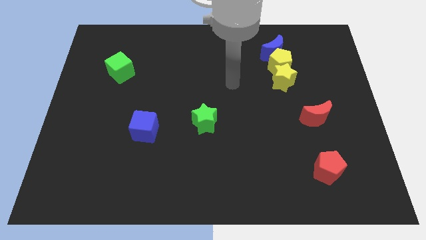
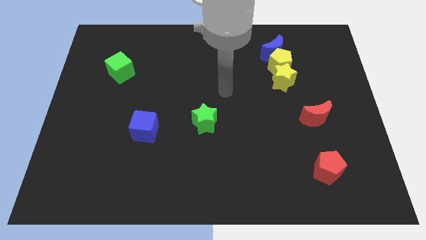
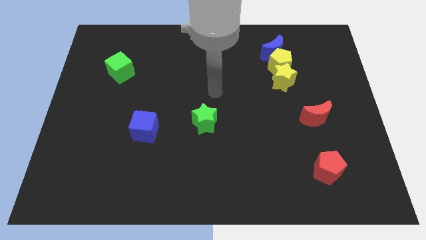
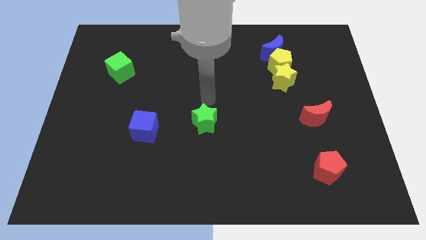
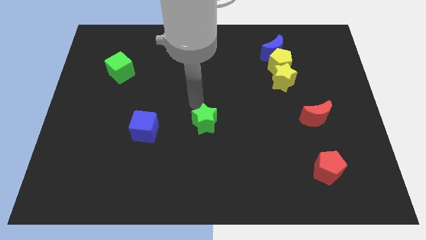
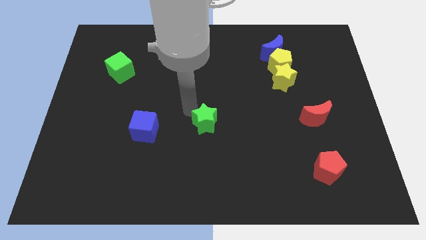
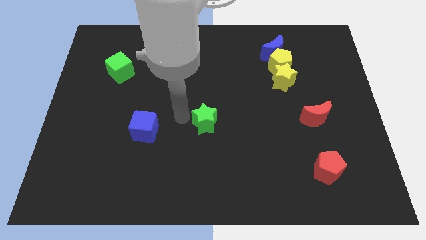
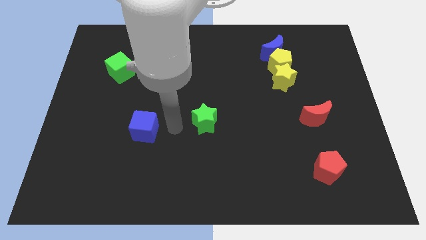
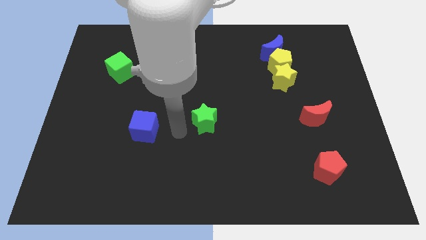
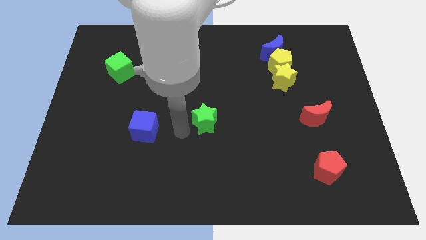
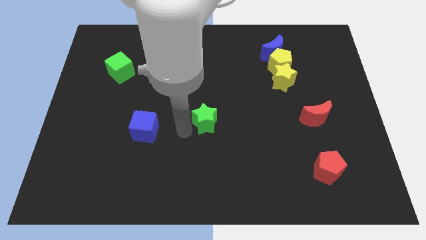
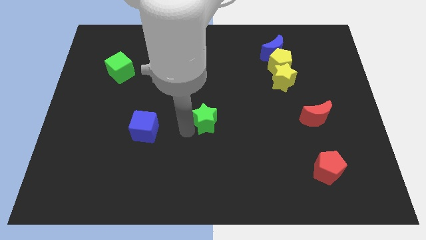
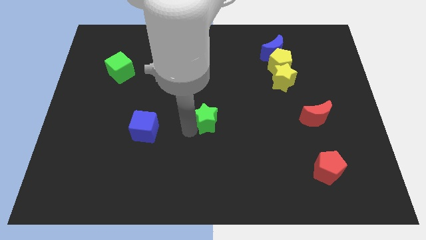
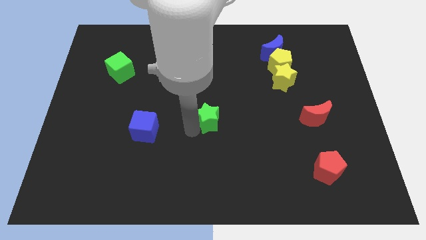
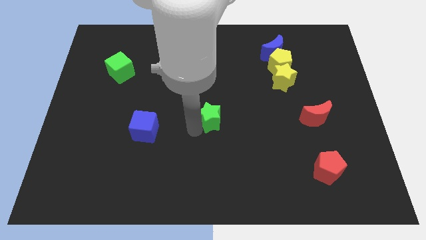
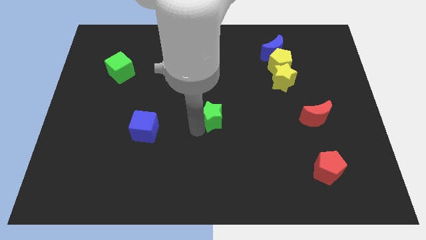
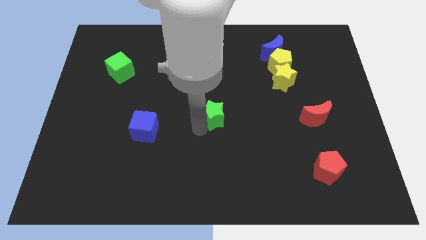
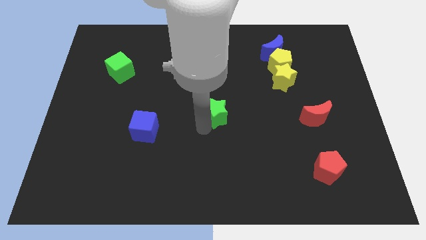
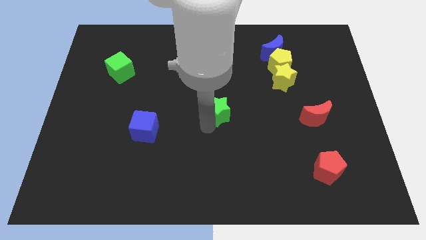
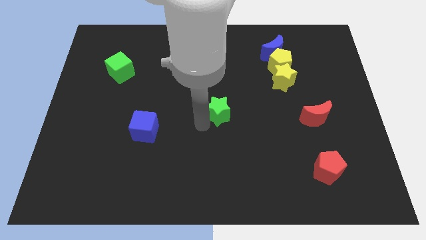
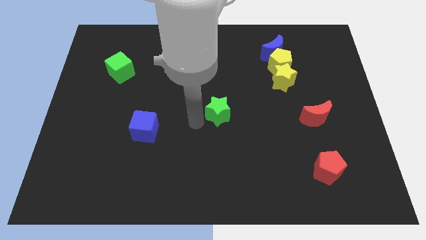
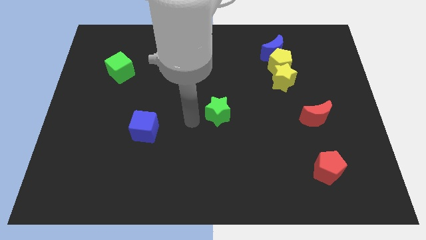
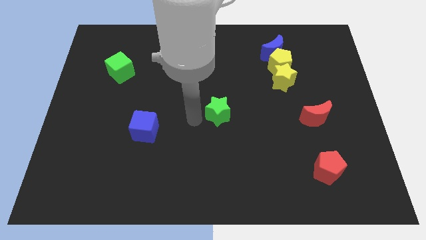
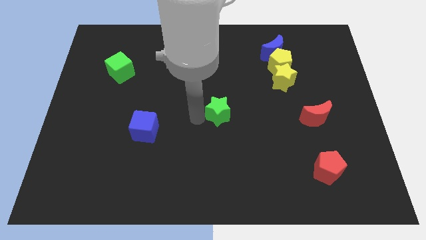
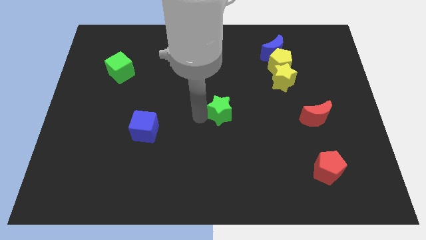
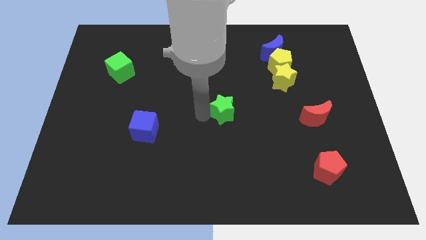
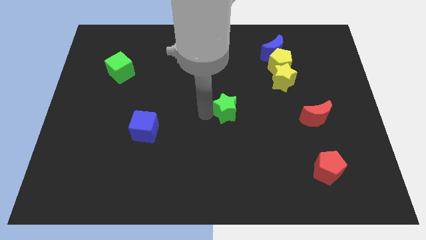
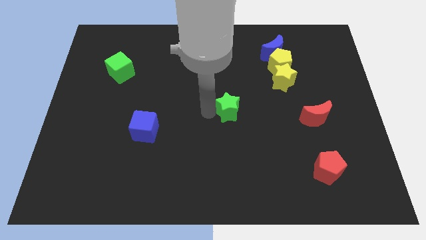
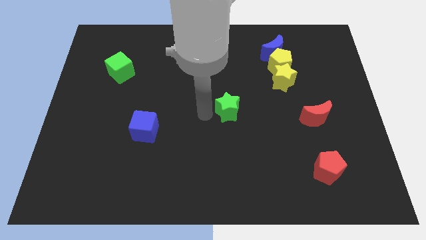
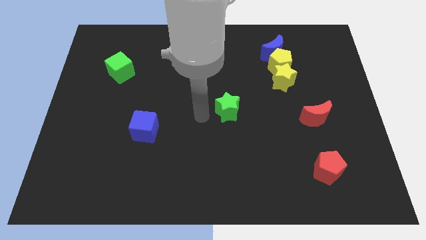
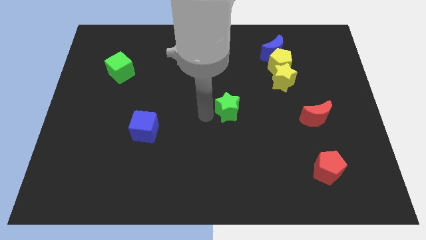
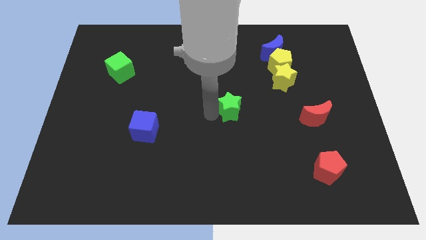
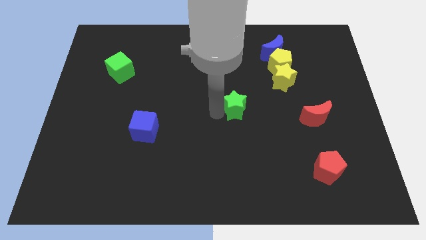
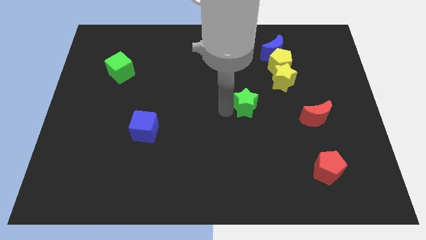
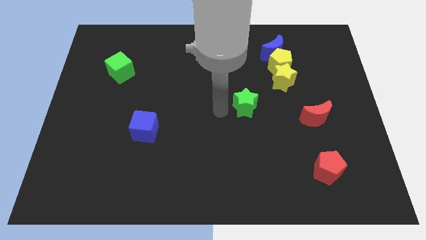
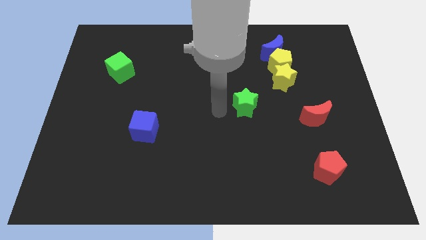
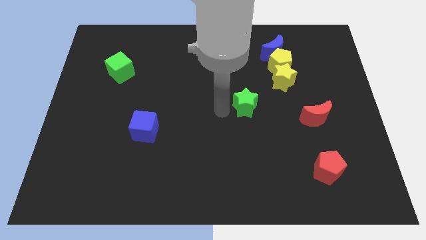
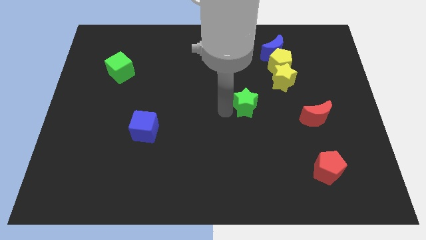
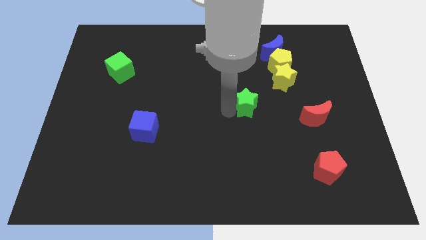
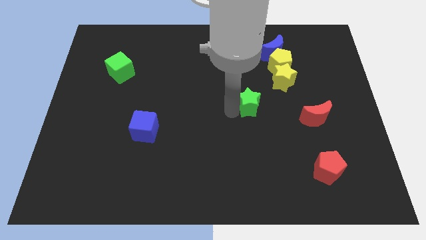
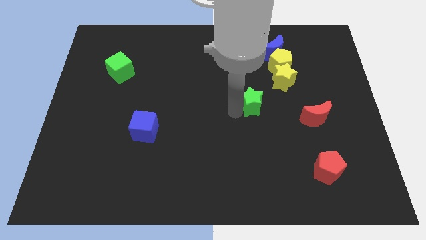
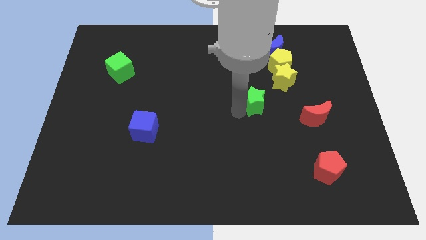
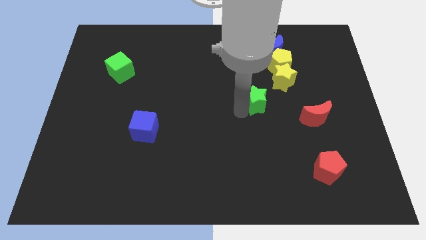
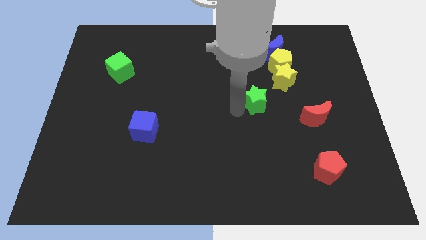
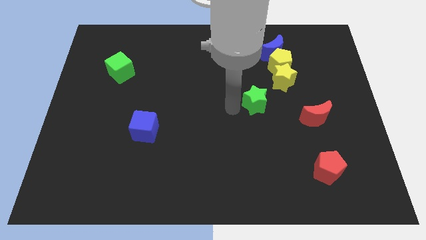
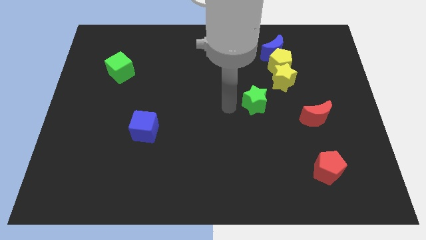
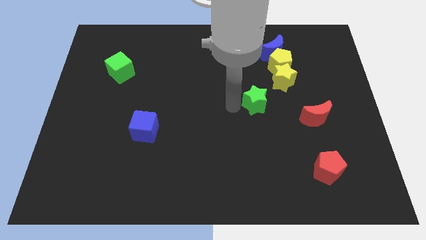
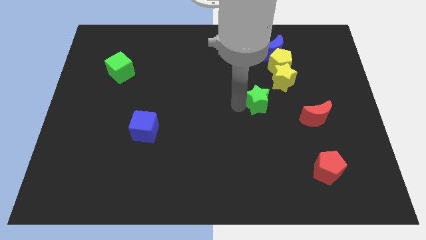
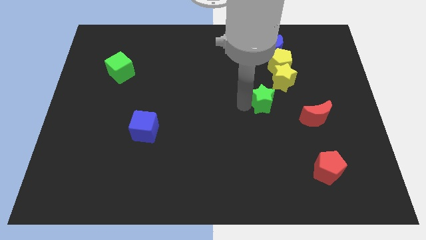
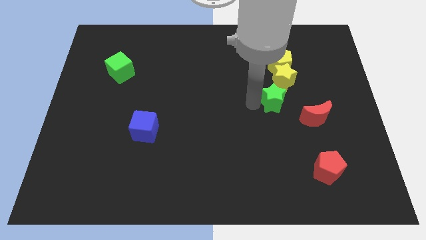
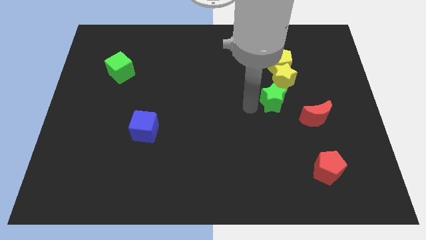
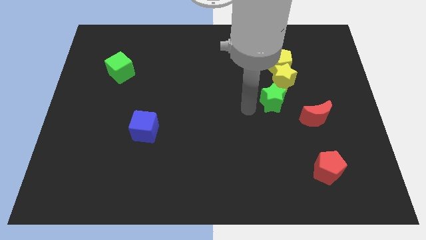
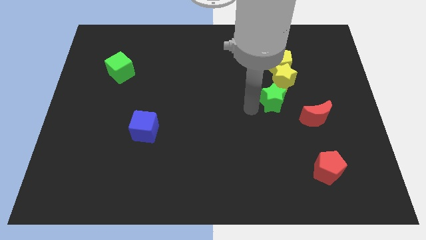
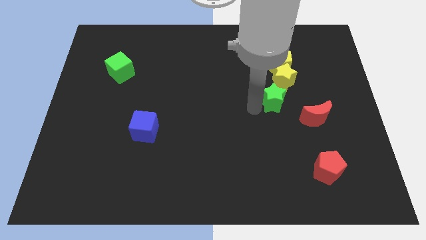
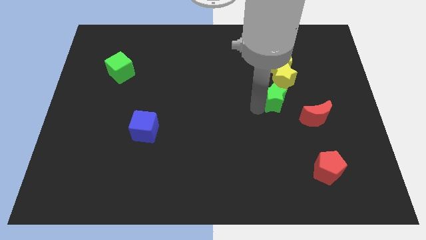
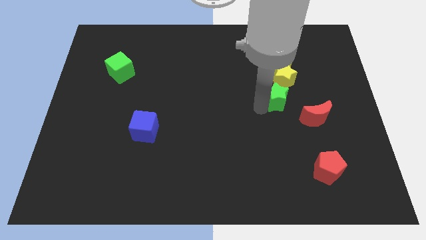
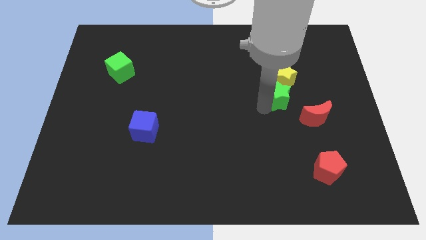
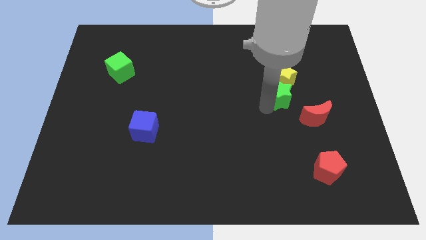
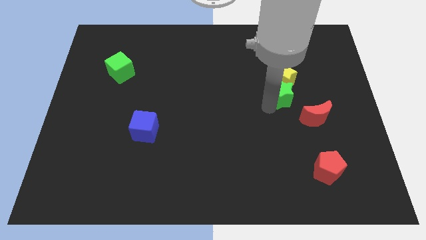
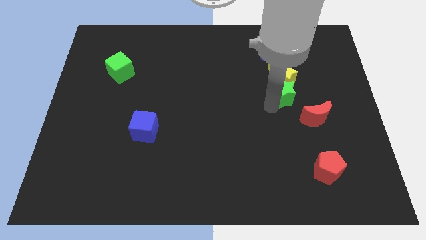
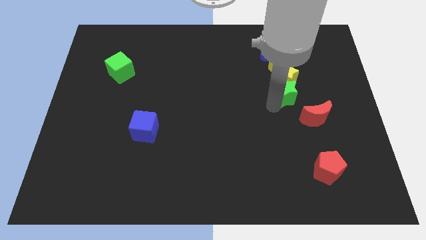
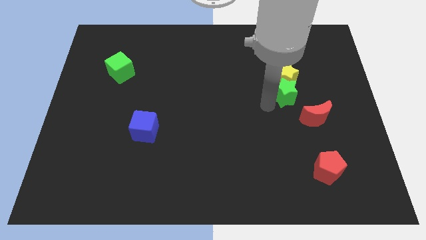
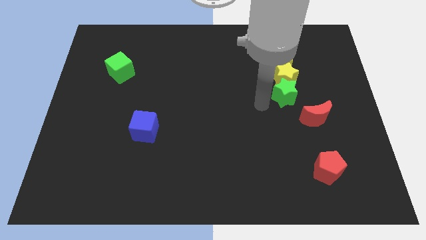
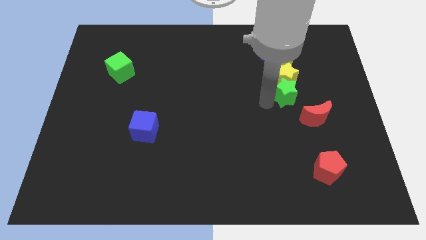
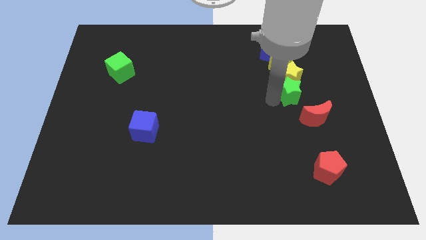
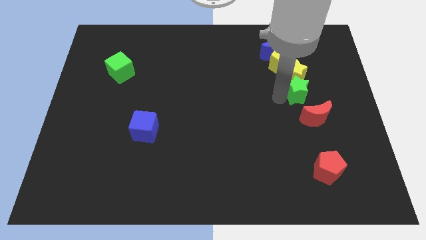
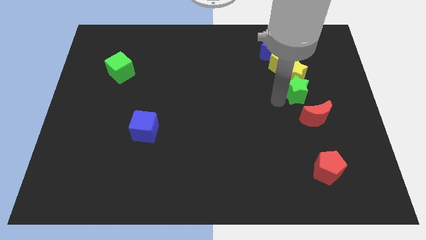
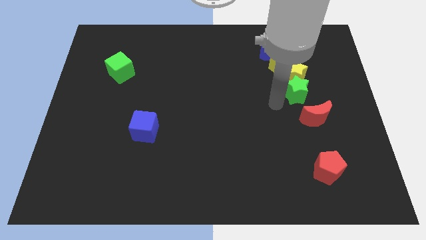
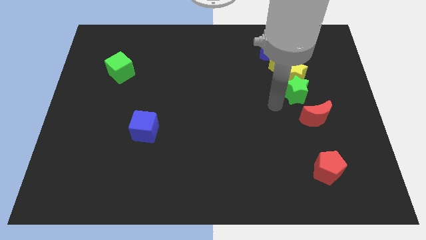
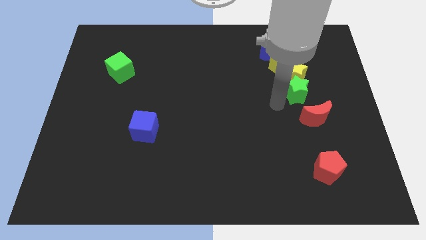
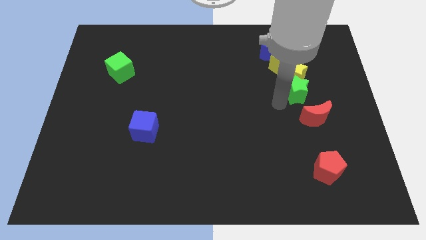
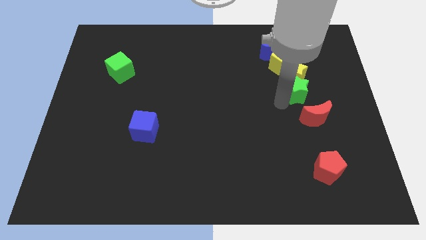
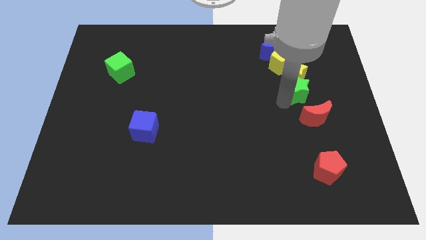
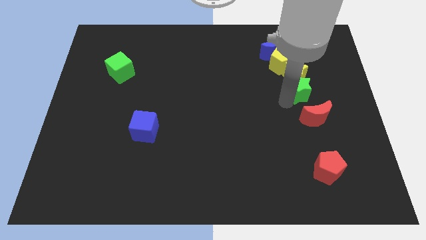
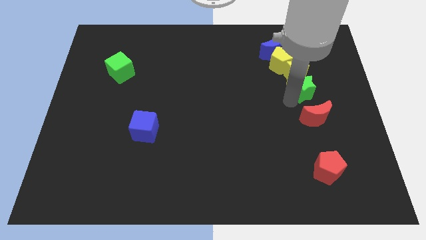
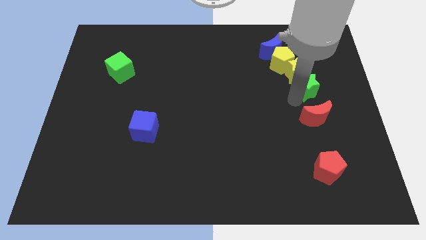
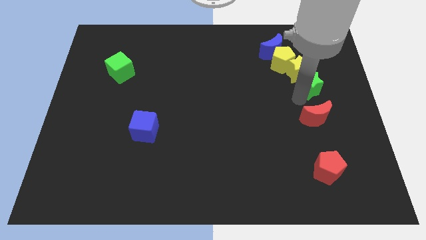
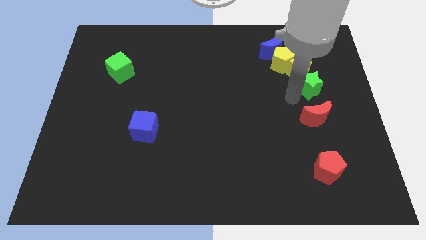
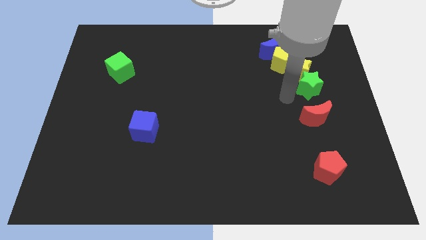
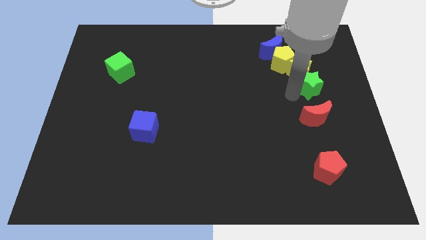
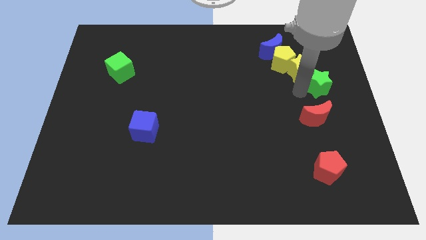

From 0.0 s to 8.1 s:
put the green star to the right side of the yellow star
